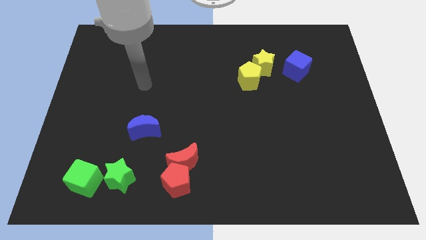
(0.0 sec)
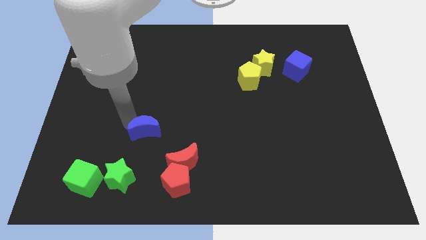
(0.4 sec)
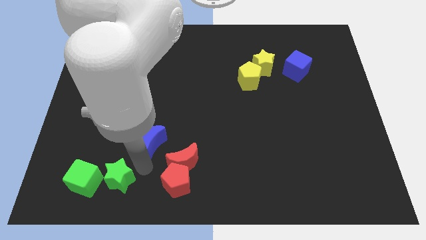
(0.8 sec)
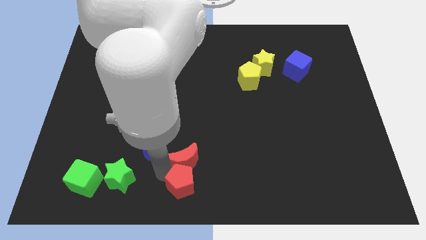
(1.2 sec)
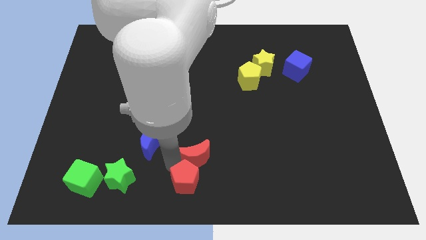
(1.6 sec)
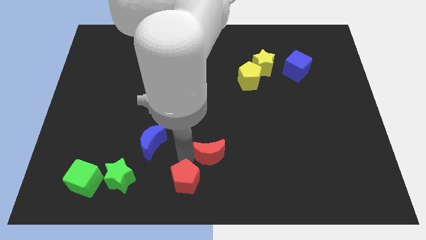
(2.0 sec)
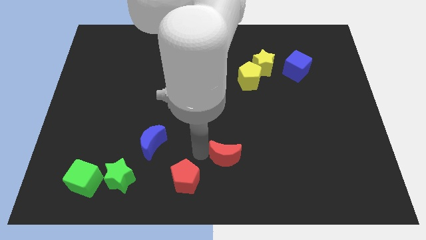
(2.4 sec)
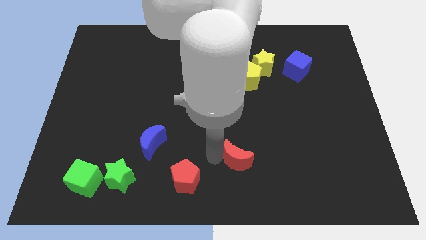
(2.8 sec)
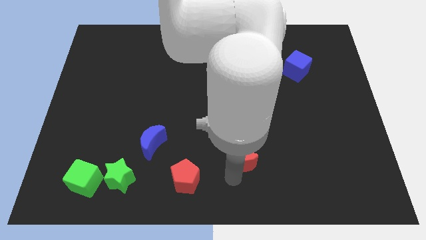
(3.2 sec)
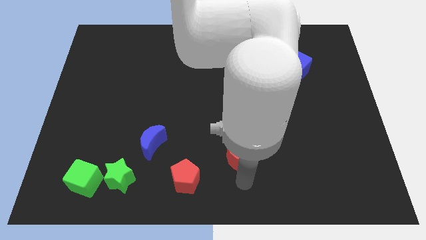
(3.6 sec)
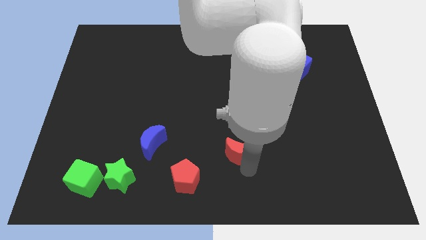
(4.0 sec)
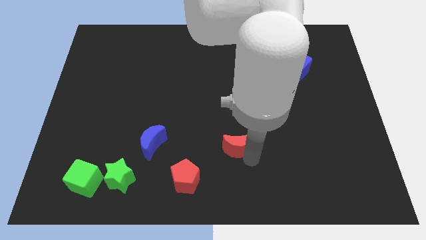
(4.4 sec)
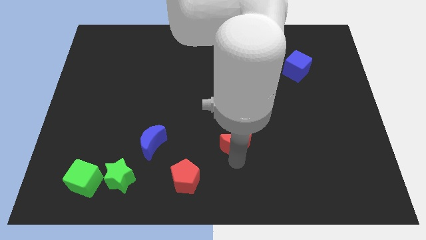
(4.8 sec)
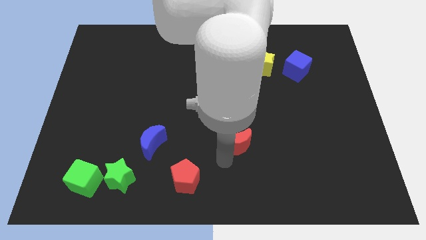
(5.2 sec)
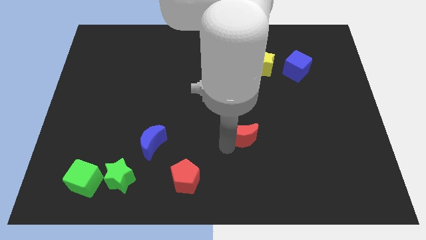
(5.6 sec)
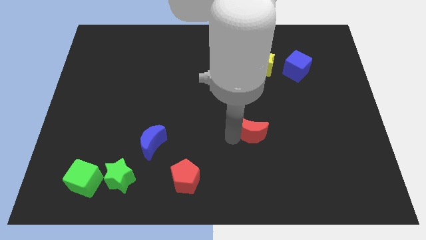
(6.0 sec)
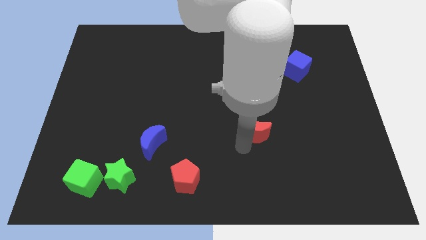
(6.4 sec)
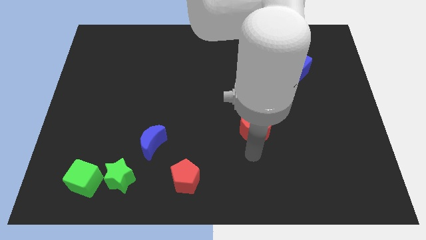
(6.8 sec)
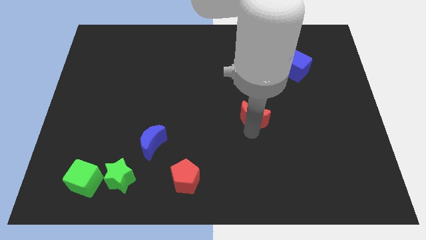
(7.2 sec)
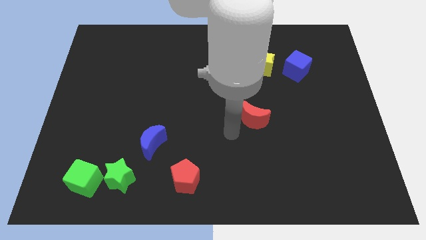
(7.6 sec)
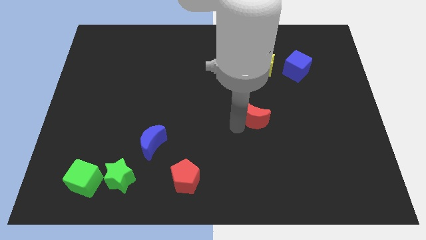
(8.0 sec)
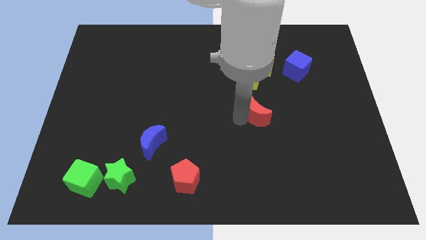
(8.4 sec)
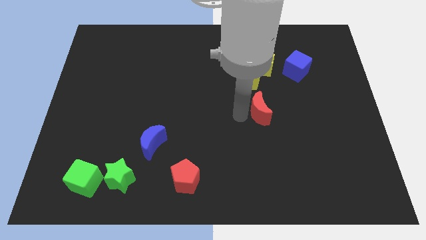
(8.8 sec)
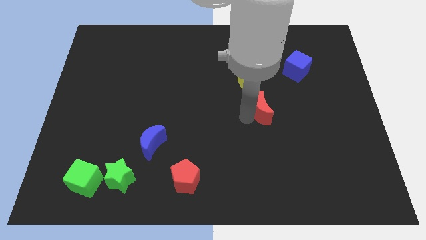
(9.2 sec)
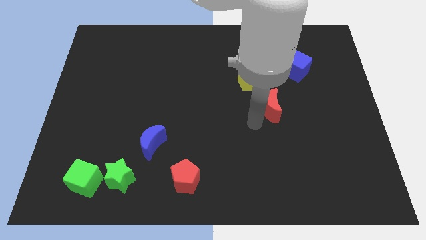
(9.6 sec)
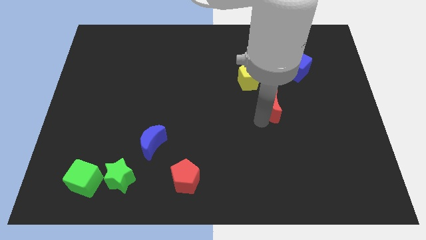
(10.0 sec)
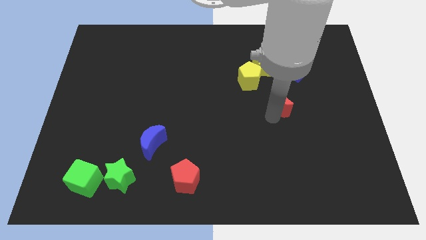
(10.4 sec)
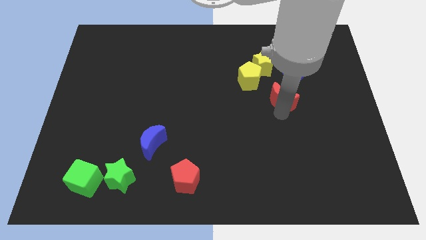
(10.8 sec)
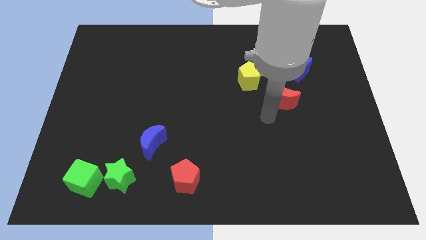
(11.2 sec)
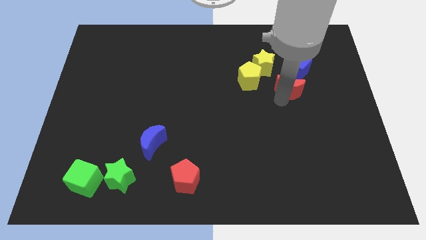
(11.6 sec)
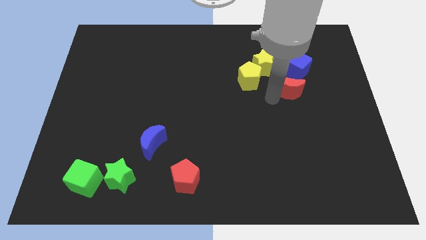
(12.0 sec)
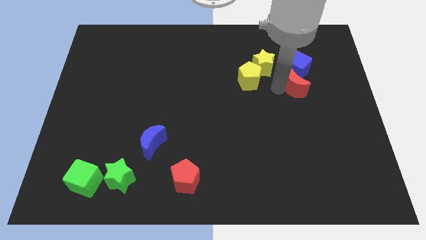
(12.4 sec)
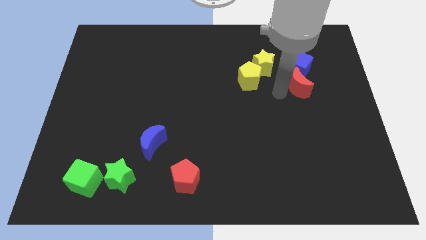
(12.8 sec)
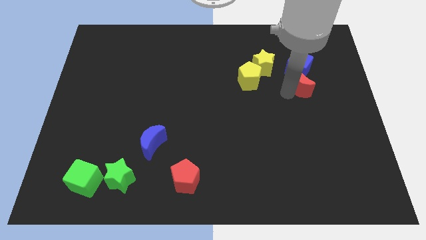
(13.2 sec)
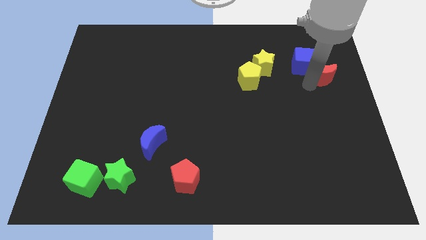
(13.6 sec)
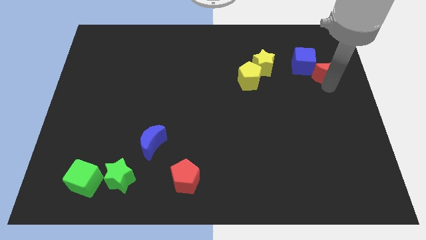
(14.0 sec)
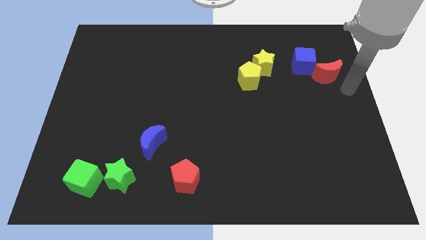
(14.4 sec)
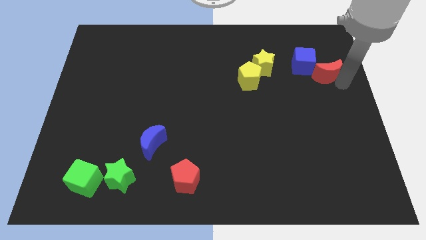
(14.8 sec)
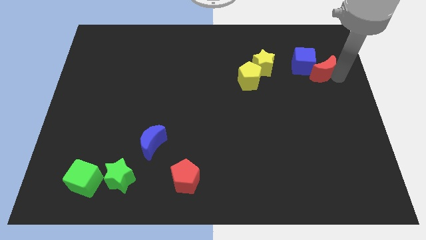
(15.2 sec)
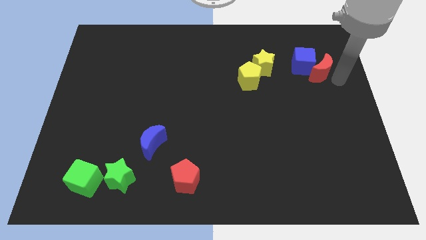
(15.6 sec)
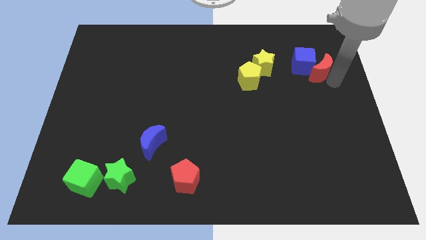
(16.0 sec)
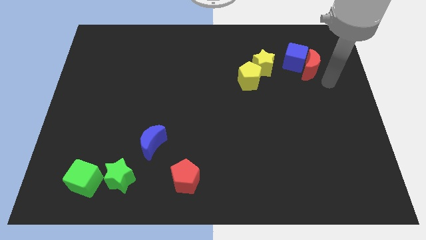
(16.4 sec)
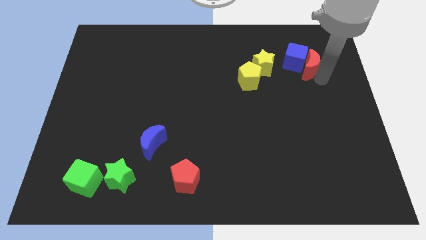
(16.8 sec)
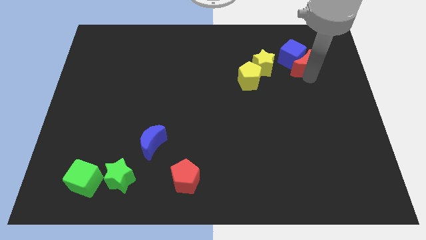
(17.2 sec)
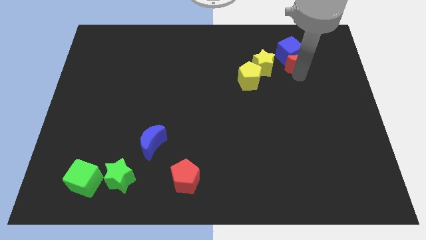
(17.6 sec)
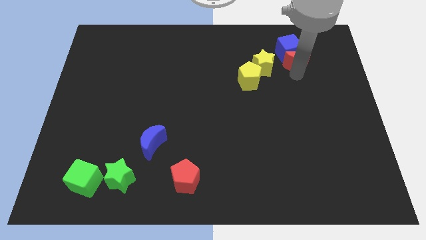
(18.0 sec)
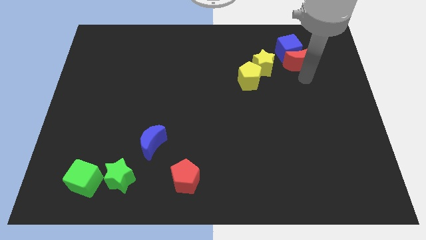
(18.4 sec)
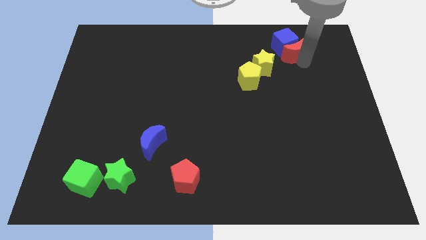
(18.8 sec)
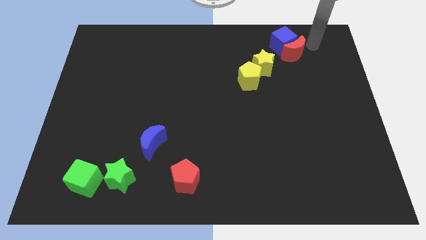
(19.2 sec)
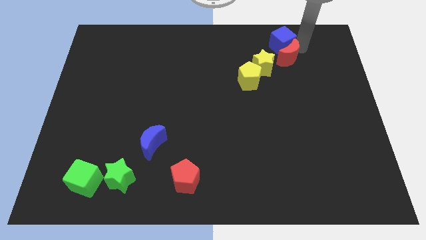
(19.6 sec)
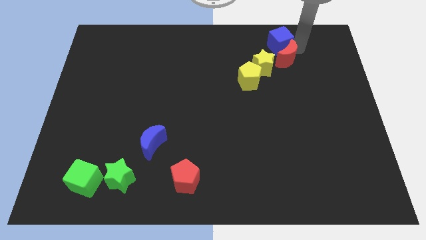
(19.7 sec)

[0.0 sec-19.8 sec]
put the red moon to the top right of the yellow pentagon

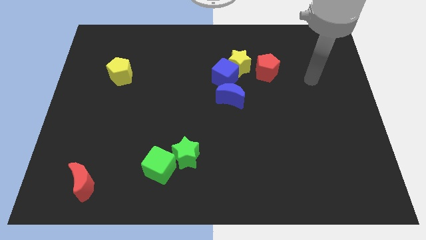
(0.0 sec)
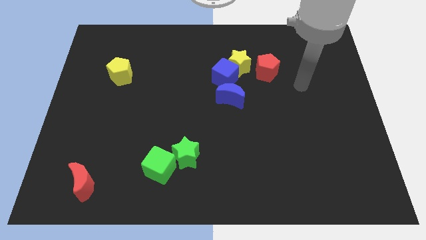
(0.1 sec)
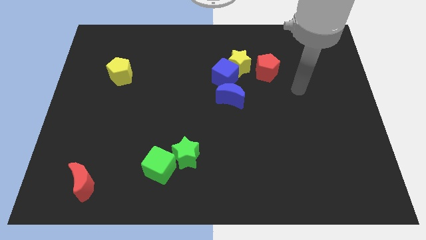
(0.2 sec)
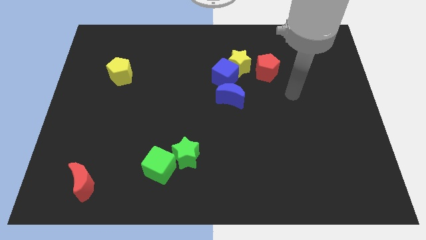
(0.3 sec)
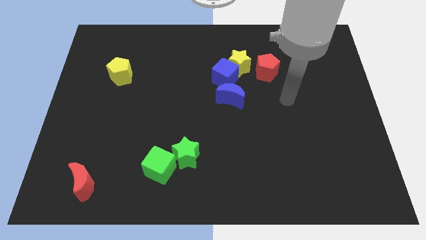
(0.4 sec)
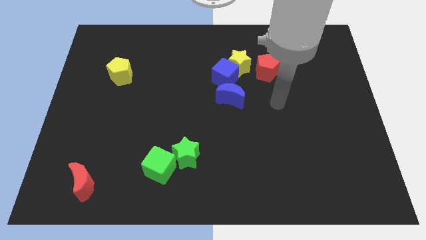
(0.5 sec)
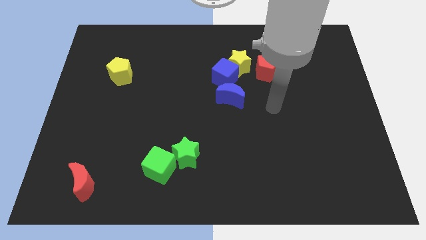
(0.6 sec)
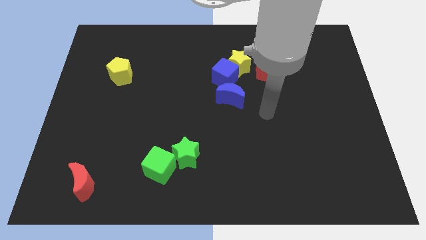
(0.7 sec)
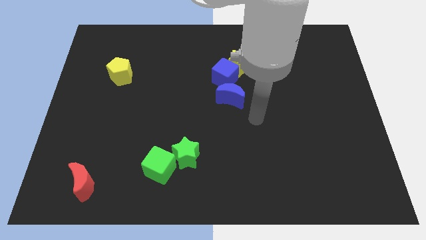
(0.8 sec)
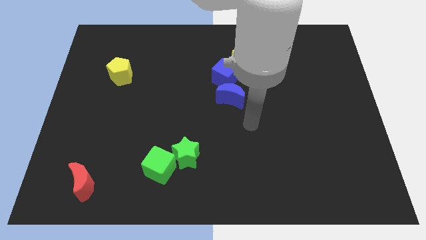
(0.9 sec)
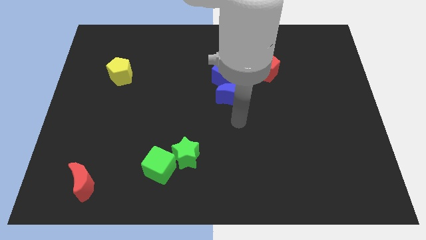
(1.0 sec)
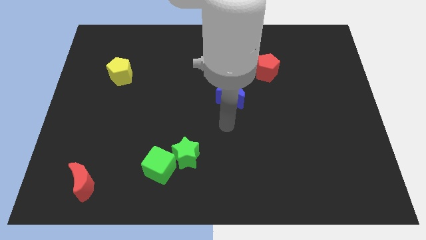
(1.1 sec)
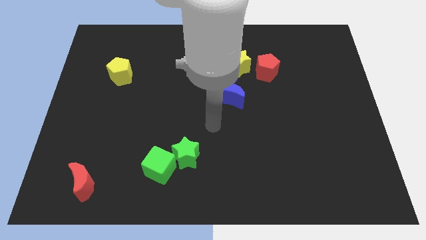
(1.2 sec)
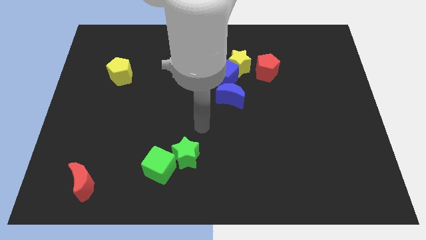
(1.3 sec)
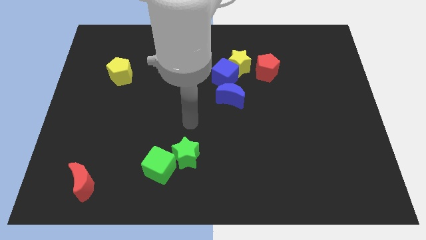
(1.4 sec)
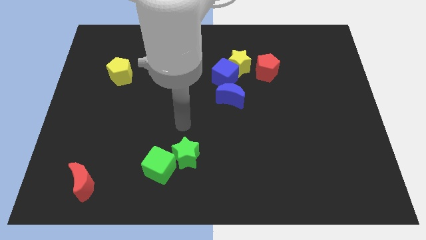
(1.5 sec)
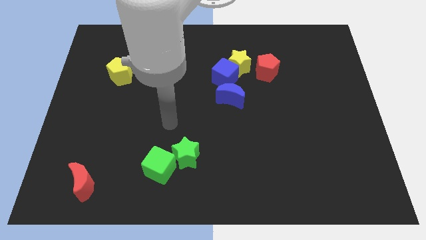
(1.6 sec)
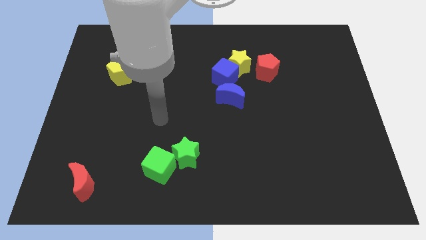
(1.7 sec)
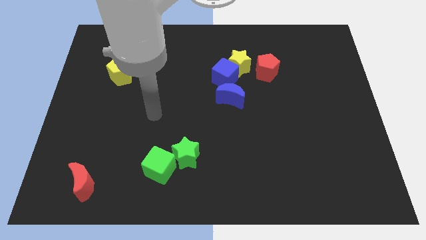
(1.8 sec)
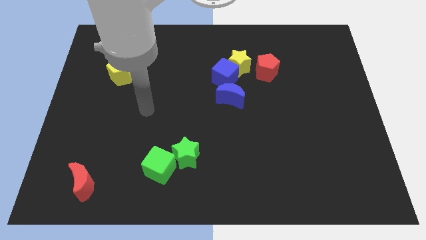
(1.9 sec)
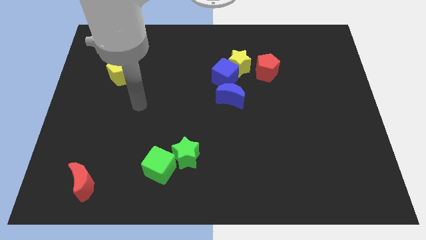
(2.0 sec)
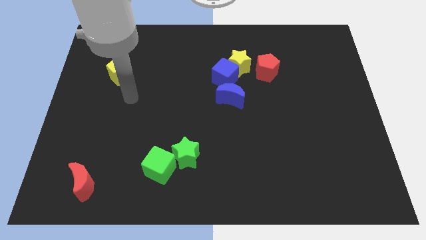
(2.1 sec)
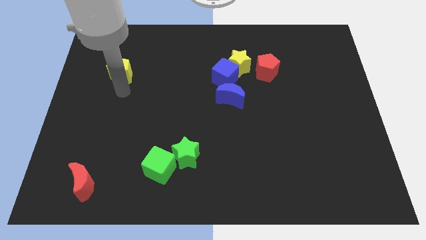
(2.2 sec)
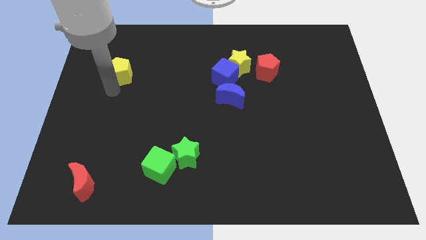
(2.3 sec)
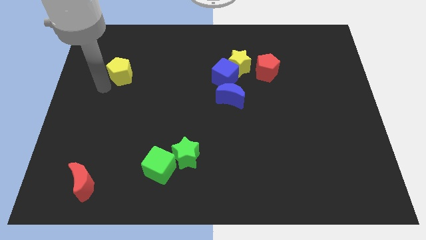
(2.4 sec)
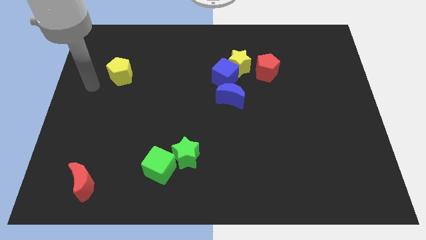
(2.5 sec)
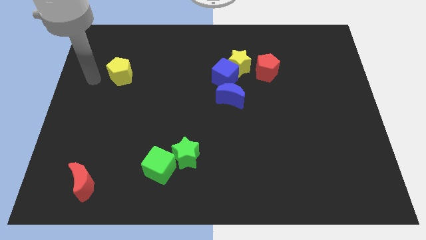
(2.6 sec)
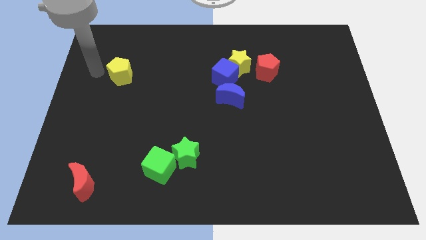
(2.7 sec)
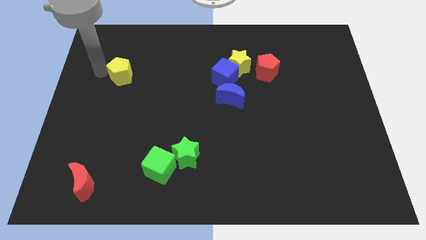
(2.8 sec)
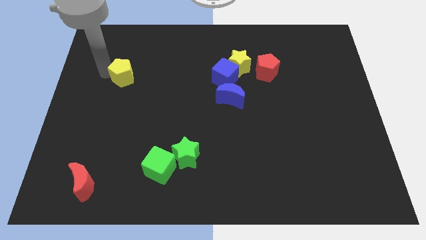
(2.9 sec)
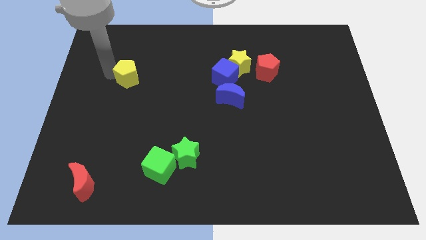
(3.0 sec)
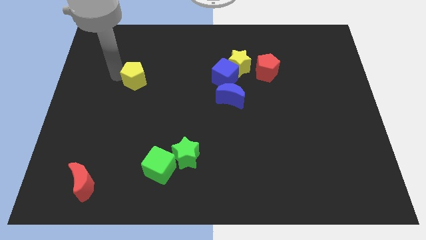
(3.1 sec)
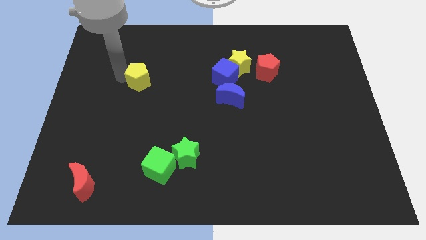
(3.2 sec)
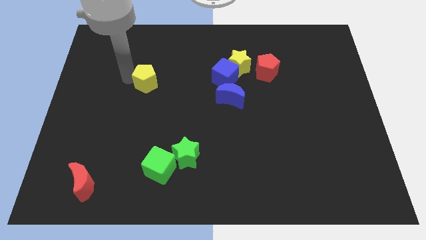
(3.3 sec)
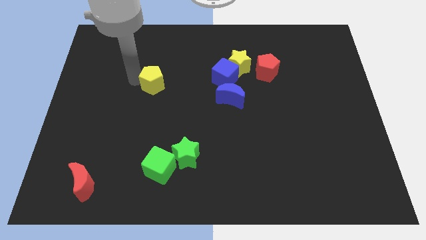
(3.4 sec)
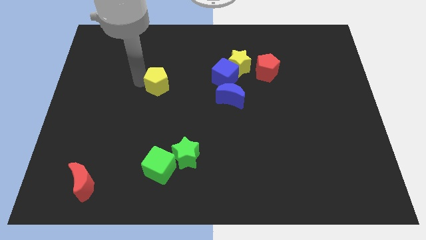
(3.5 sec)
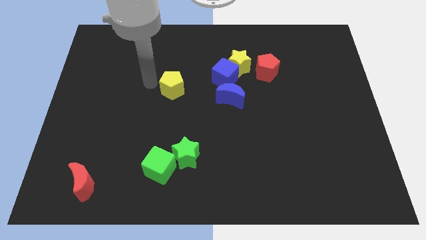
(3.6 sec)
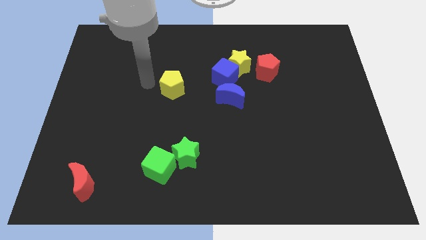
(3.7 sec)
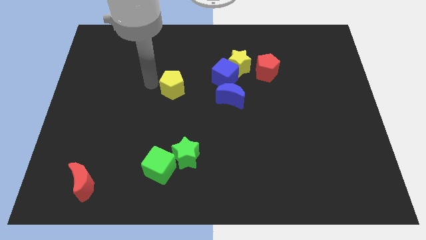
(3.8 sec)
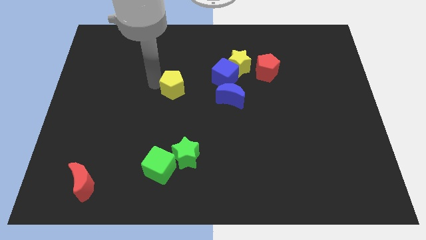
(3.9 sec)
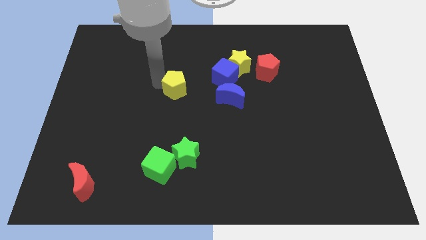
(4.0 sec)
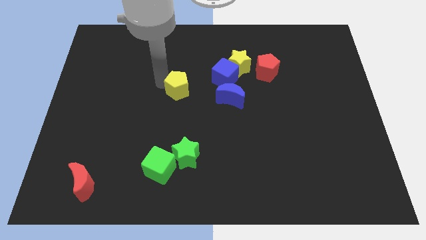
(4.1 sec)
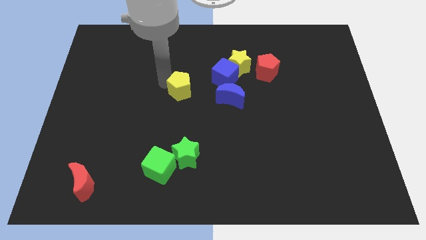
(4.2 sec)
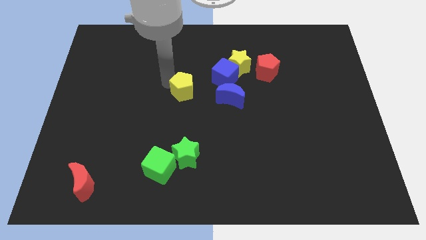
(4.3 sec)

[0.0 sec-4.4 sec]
move the yellow pentagon to the bottom left of the blue cube
